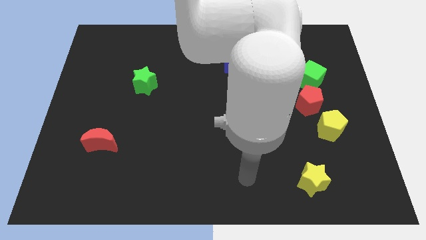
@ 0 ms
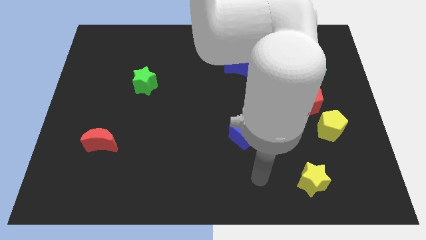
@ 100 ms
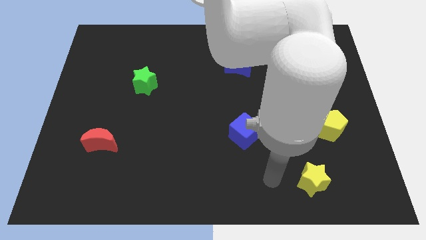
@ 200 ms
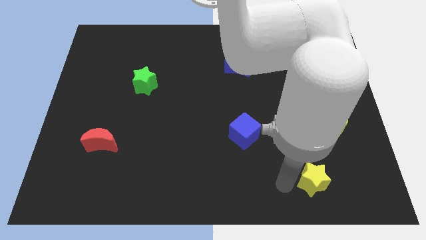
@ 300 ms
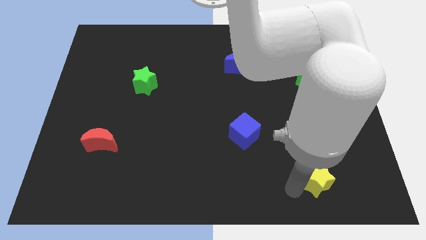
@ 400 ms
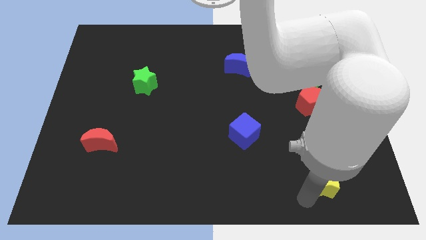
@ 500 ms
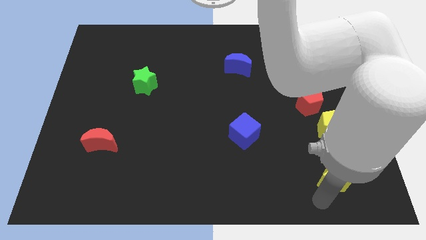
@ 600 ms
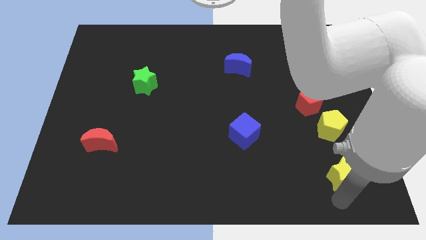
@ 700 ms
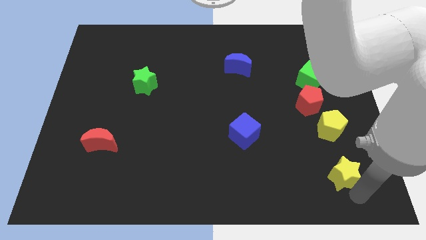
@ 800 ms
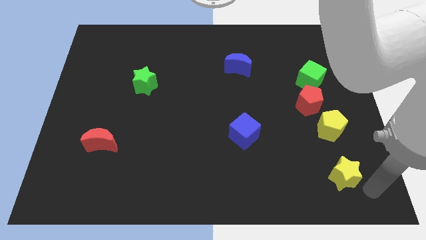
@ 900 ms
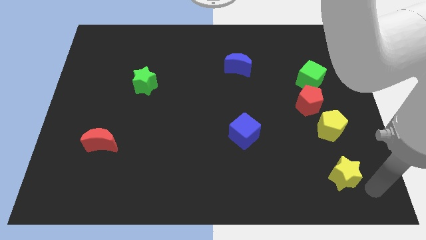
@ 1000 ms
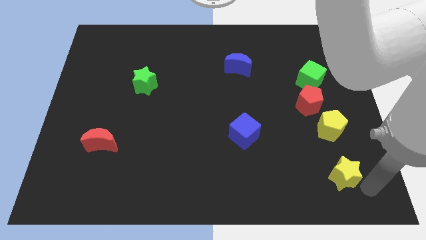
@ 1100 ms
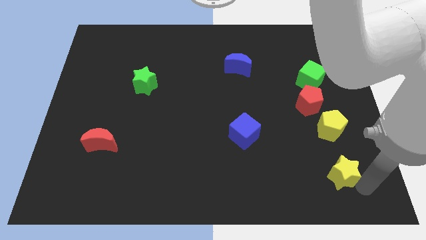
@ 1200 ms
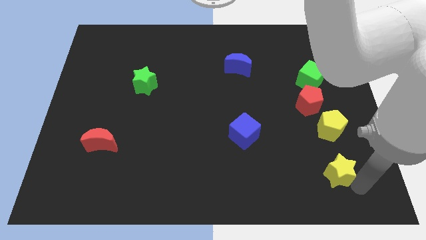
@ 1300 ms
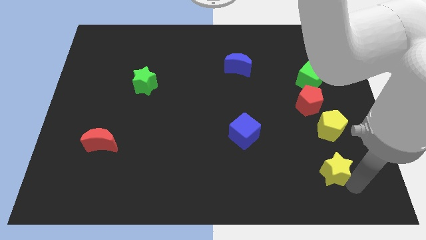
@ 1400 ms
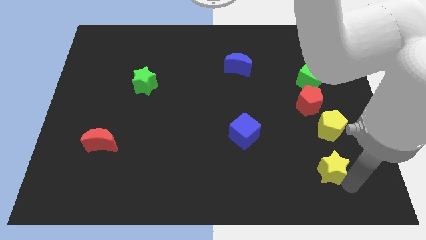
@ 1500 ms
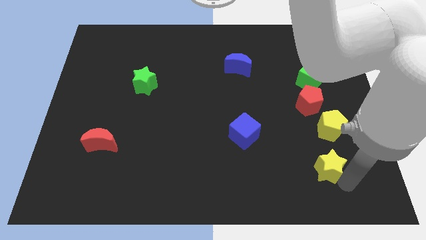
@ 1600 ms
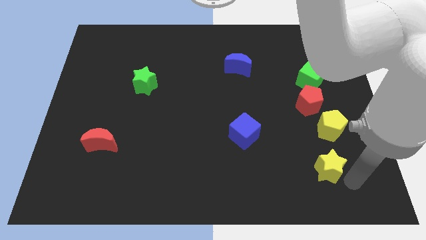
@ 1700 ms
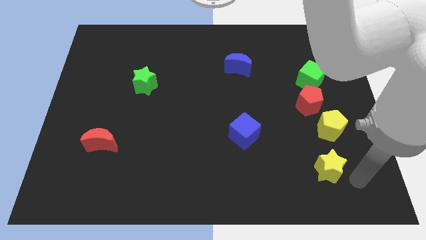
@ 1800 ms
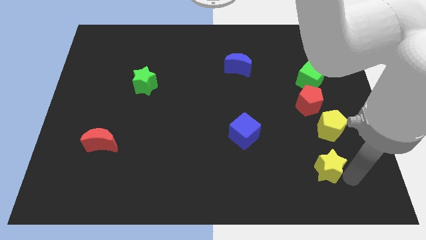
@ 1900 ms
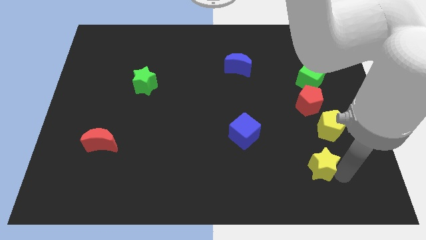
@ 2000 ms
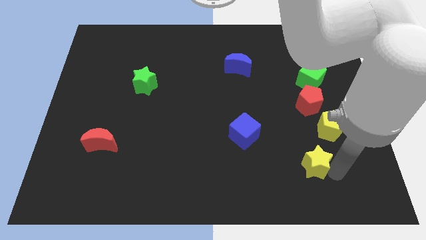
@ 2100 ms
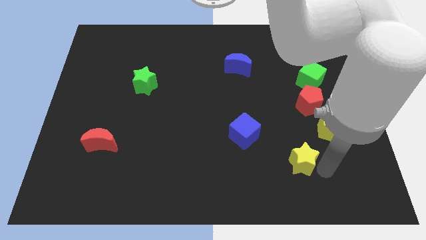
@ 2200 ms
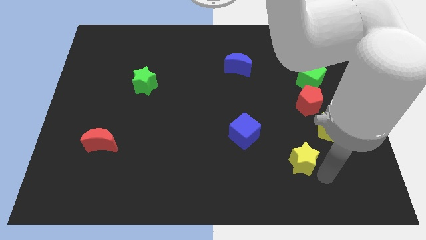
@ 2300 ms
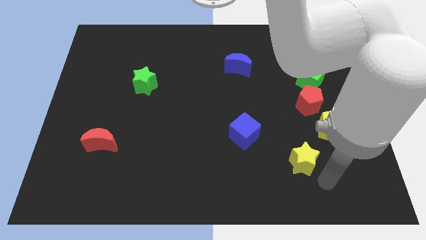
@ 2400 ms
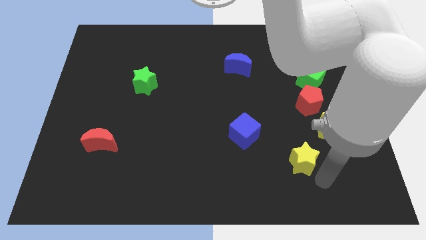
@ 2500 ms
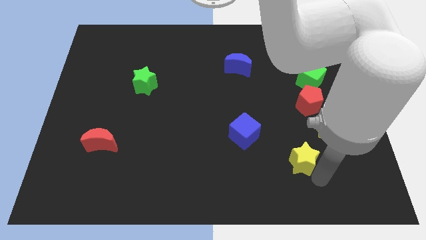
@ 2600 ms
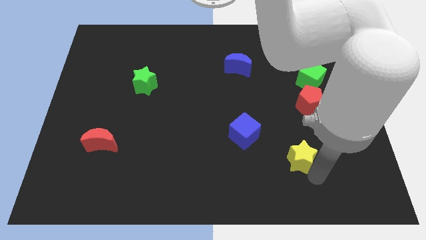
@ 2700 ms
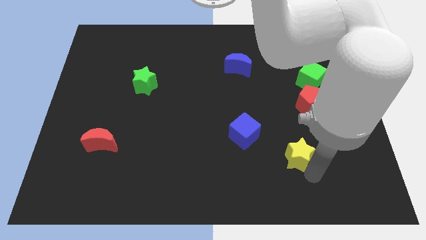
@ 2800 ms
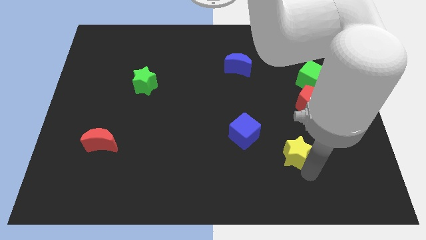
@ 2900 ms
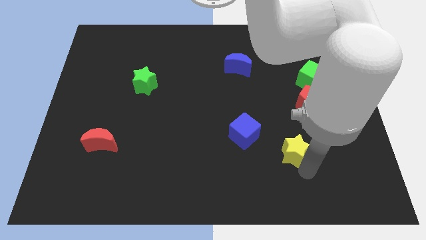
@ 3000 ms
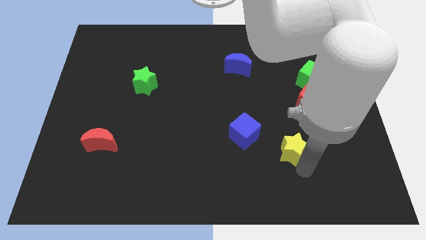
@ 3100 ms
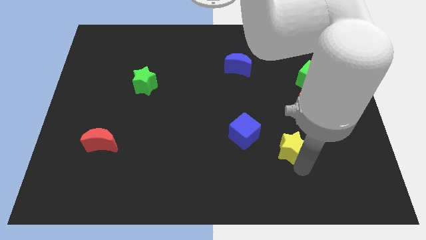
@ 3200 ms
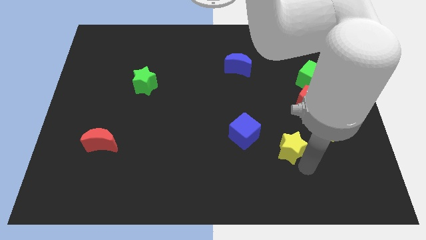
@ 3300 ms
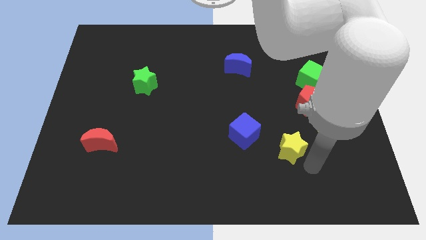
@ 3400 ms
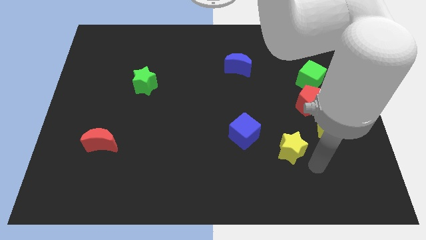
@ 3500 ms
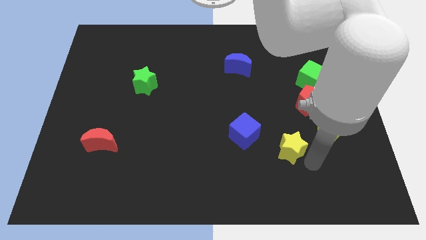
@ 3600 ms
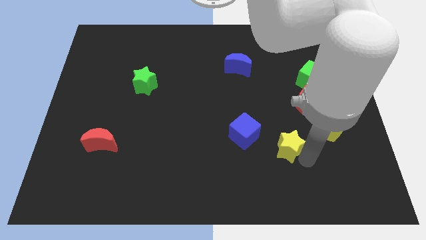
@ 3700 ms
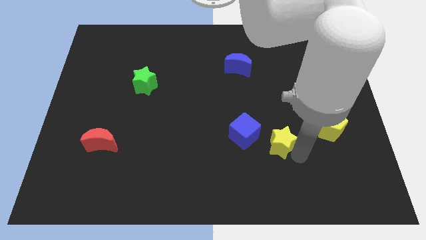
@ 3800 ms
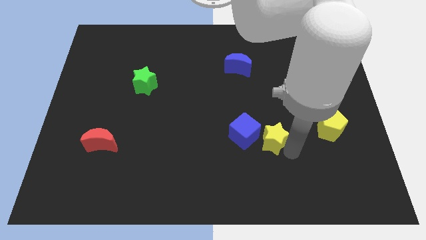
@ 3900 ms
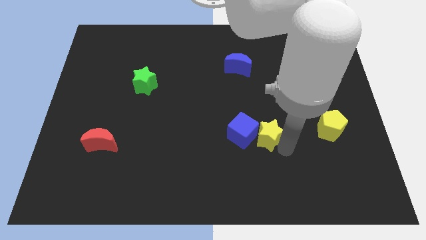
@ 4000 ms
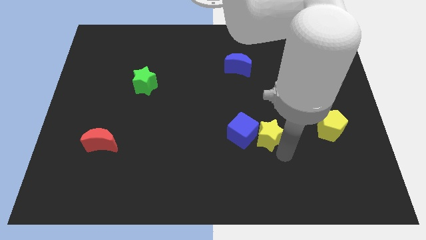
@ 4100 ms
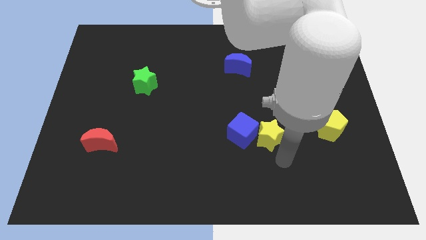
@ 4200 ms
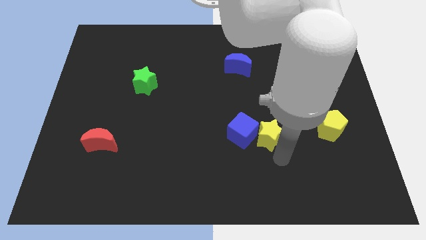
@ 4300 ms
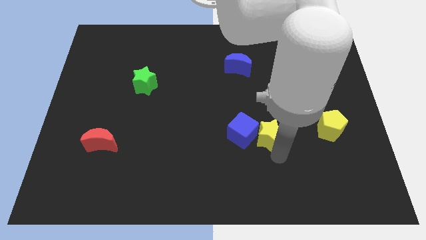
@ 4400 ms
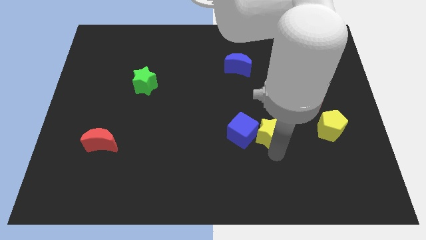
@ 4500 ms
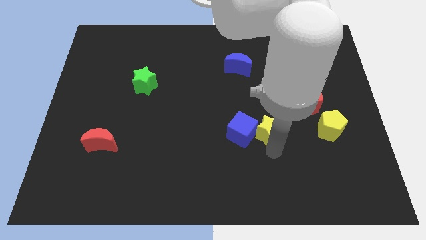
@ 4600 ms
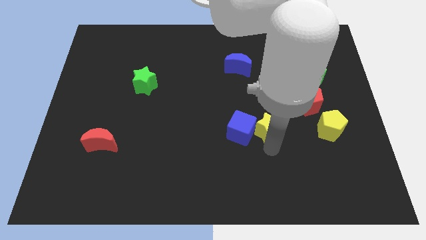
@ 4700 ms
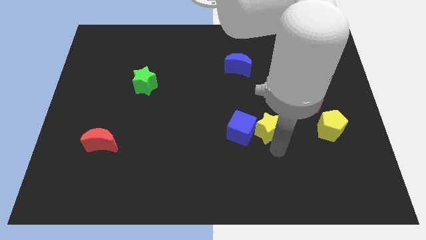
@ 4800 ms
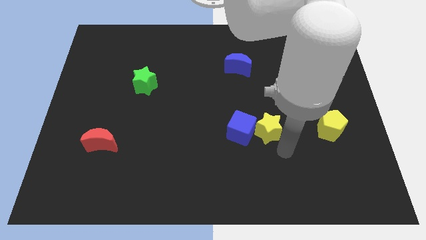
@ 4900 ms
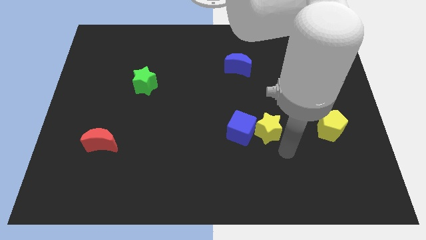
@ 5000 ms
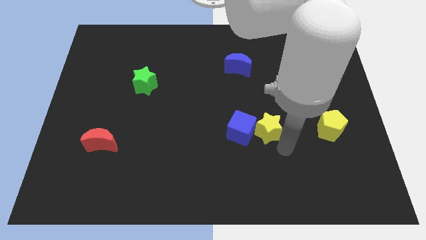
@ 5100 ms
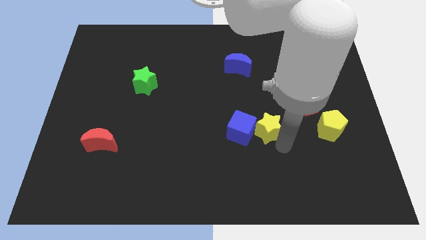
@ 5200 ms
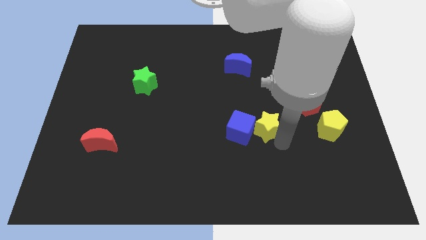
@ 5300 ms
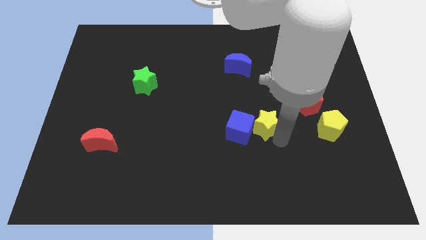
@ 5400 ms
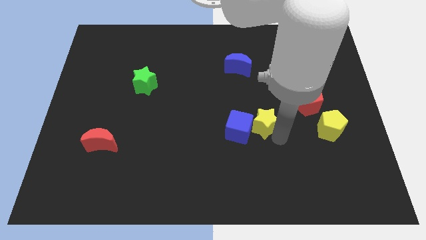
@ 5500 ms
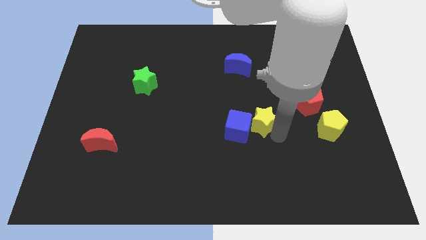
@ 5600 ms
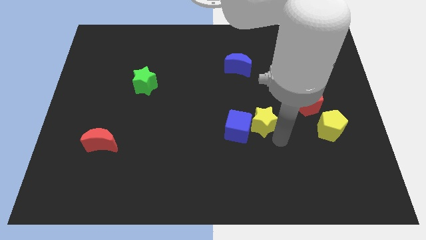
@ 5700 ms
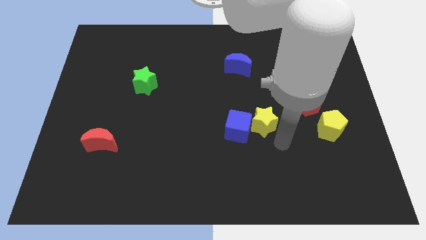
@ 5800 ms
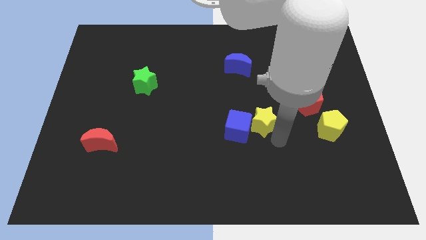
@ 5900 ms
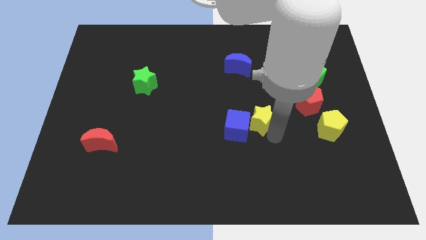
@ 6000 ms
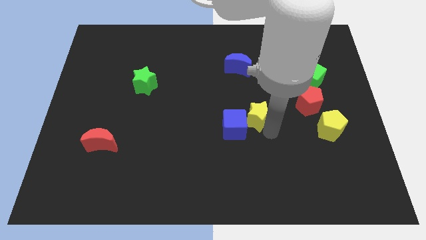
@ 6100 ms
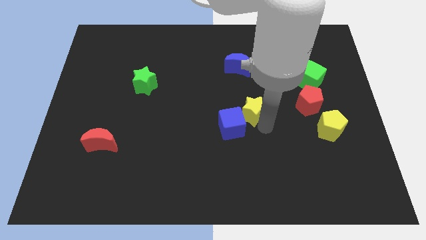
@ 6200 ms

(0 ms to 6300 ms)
put the yellow star below the blue moon
